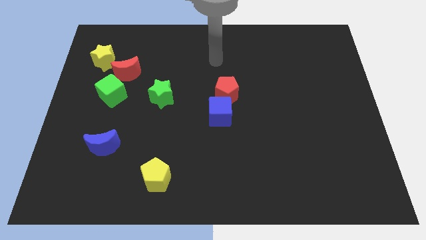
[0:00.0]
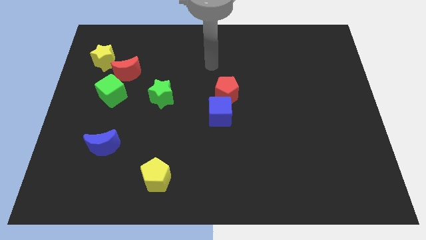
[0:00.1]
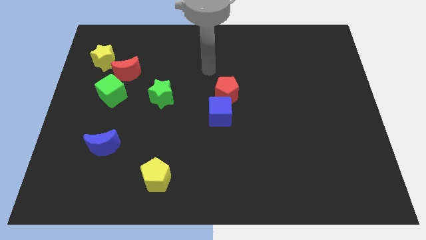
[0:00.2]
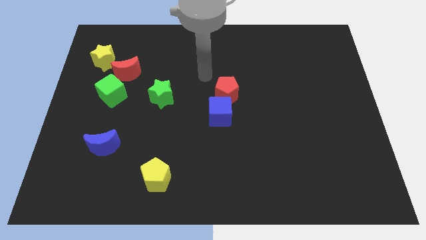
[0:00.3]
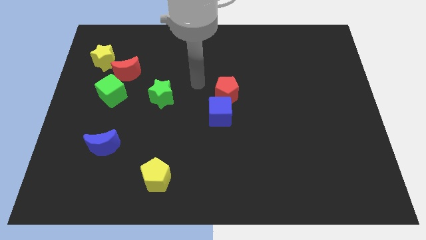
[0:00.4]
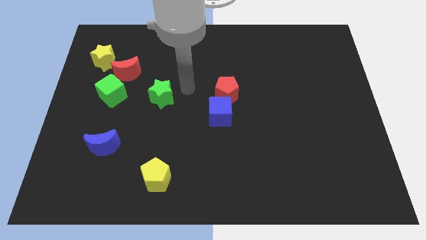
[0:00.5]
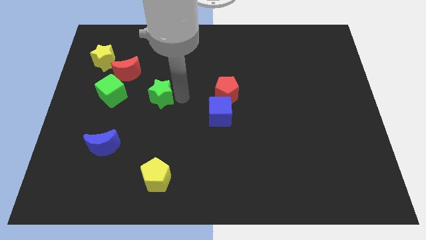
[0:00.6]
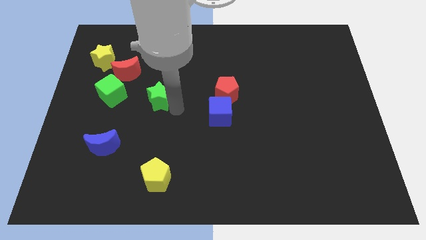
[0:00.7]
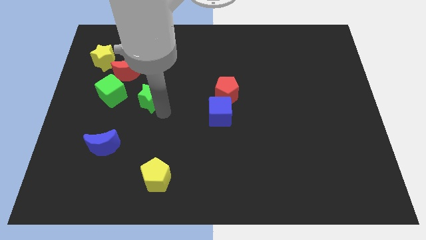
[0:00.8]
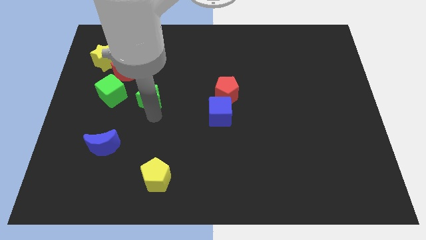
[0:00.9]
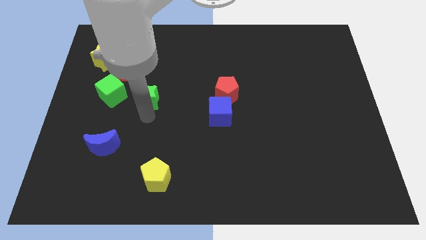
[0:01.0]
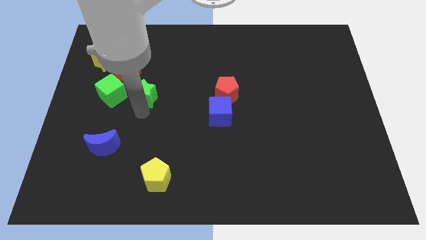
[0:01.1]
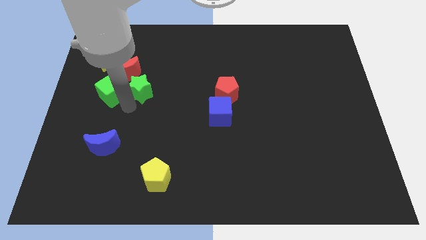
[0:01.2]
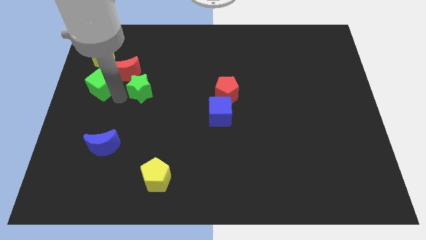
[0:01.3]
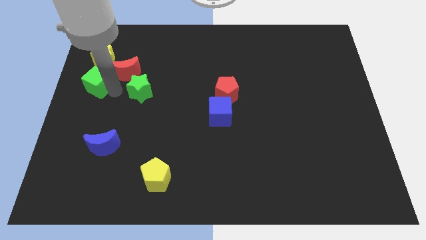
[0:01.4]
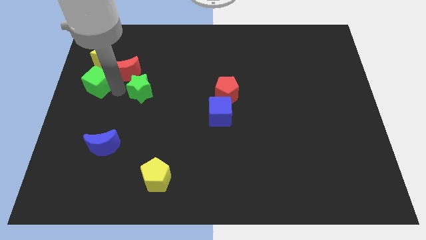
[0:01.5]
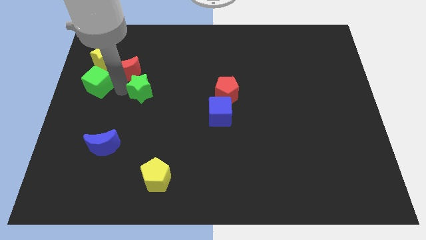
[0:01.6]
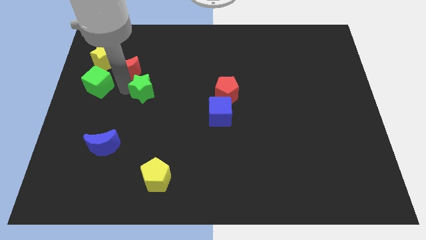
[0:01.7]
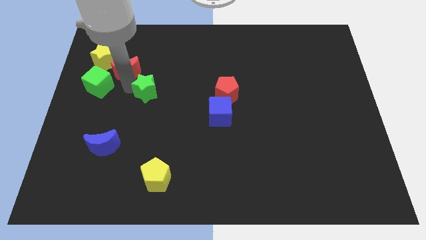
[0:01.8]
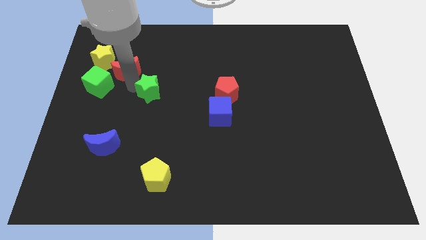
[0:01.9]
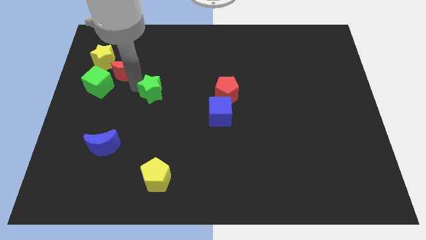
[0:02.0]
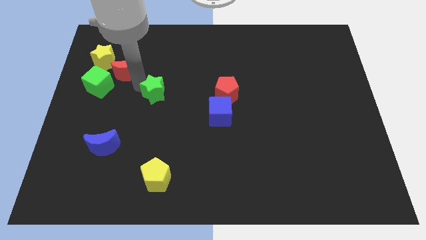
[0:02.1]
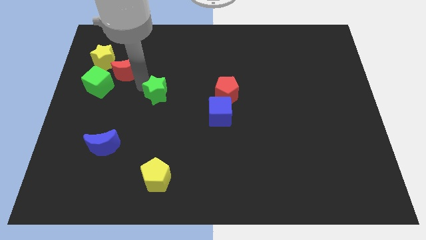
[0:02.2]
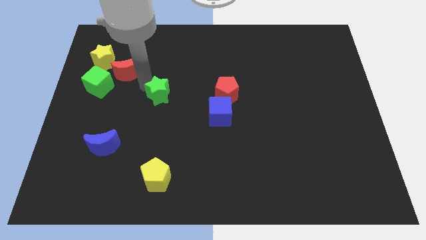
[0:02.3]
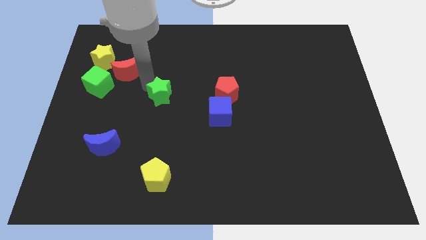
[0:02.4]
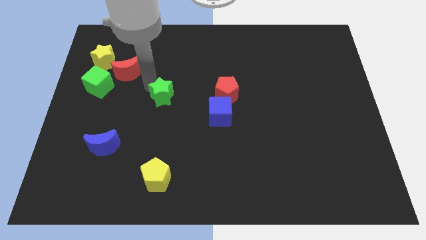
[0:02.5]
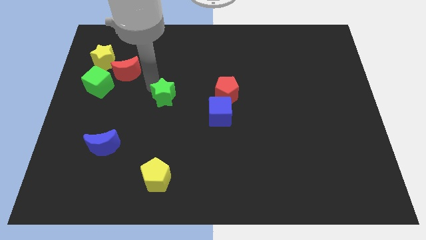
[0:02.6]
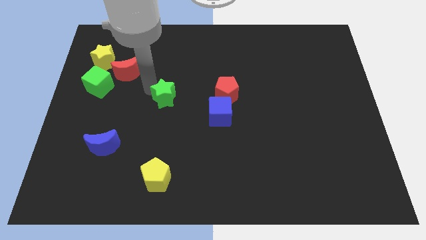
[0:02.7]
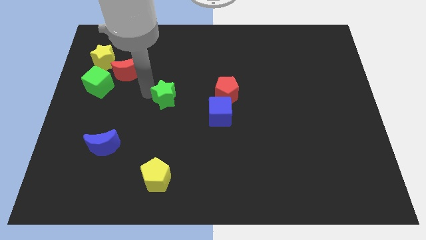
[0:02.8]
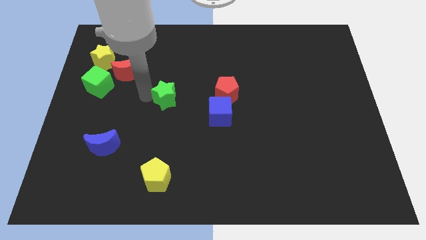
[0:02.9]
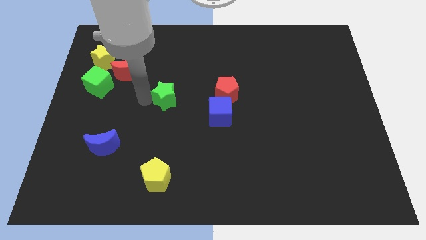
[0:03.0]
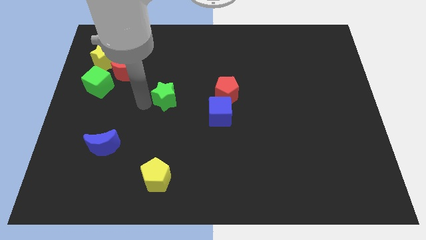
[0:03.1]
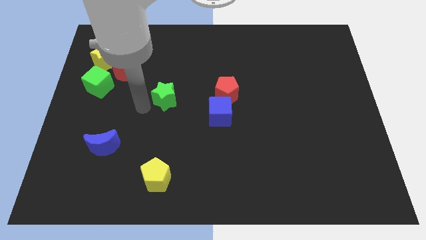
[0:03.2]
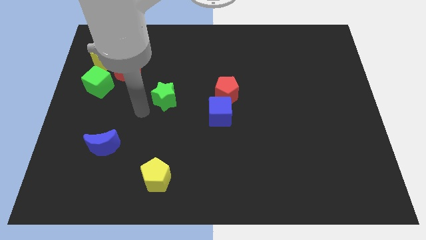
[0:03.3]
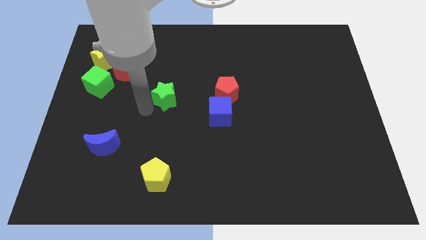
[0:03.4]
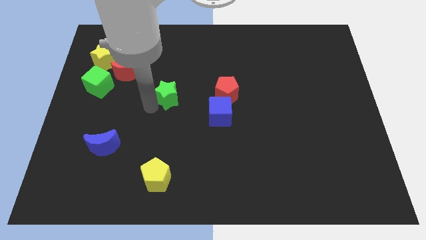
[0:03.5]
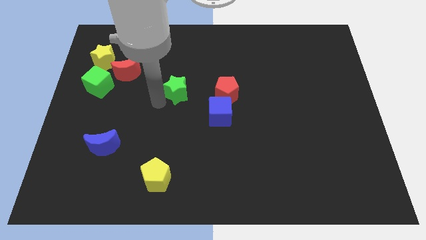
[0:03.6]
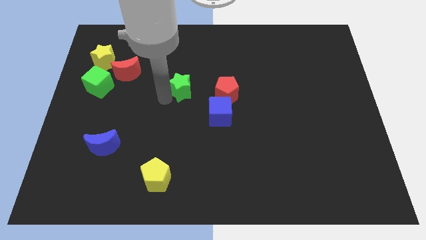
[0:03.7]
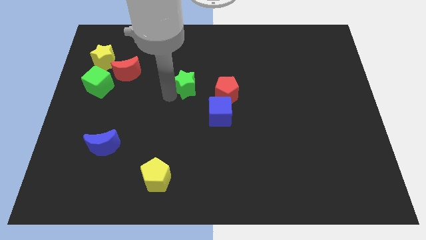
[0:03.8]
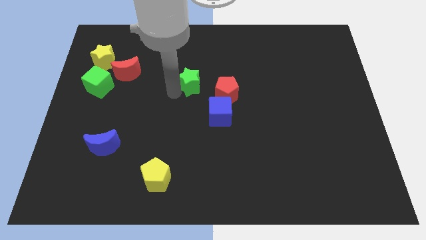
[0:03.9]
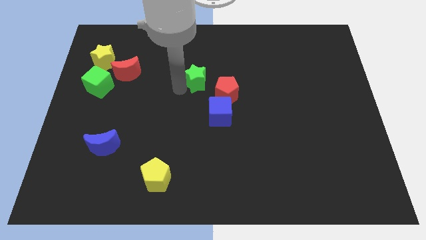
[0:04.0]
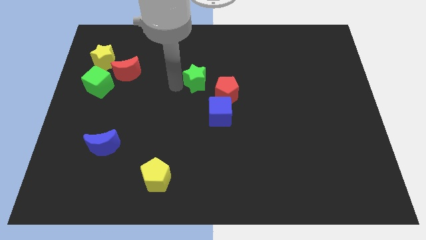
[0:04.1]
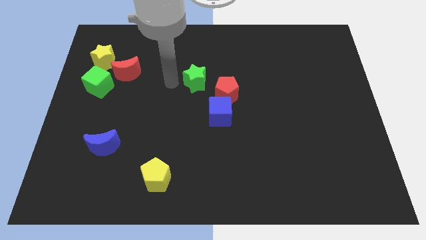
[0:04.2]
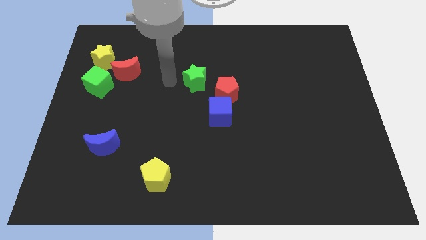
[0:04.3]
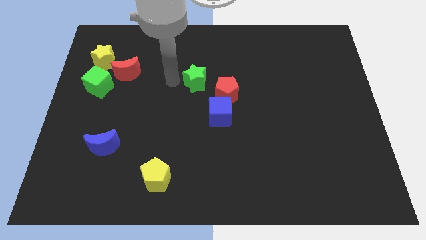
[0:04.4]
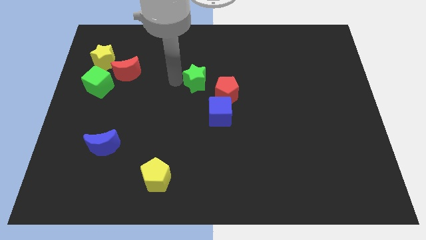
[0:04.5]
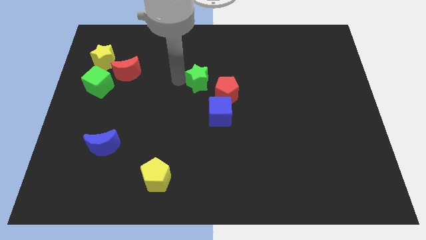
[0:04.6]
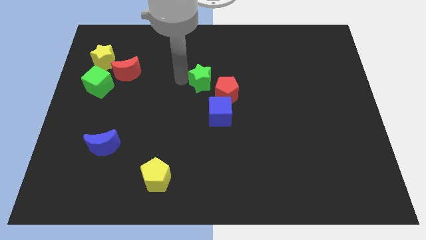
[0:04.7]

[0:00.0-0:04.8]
push the green star to the top of the blue cube

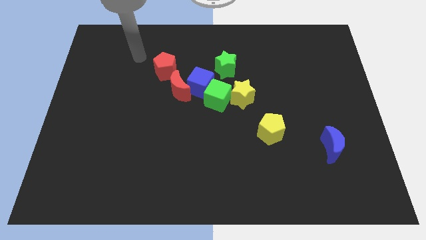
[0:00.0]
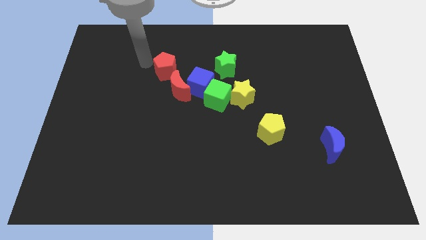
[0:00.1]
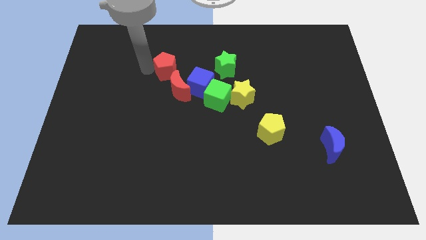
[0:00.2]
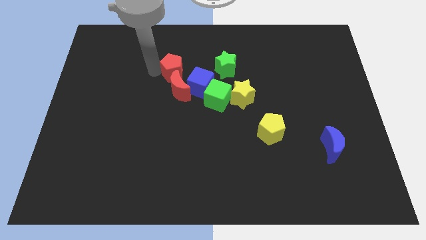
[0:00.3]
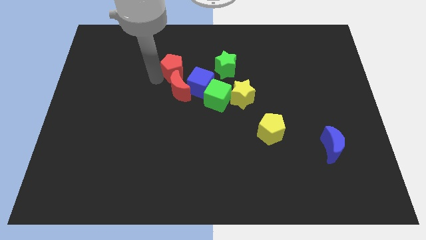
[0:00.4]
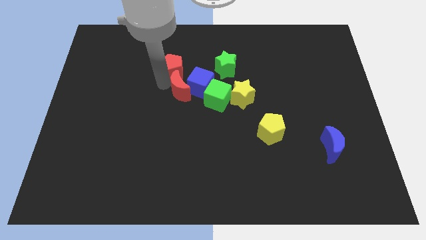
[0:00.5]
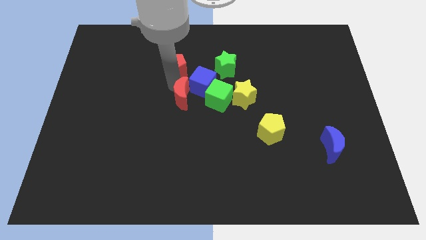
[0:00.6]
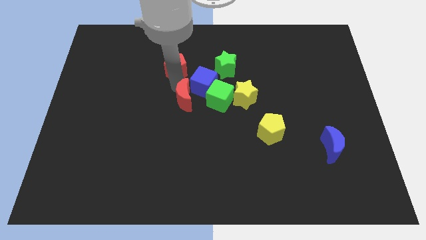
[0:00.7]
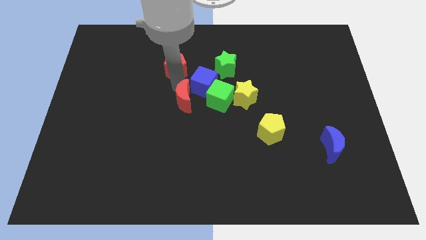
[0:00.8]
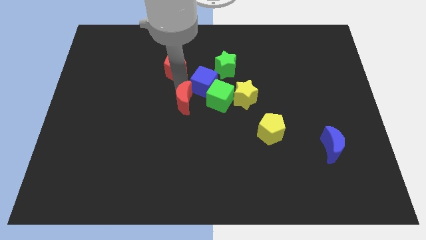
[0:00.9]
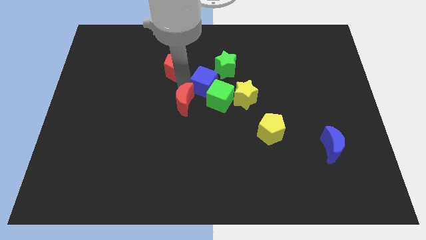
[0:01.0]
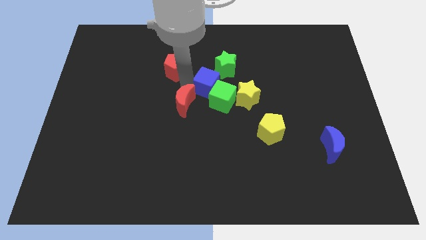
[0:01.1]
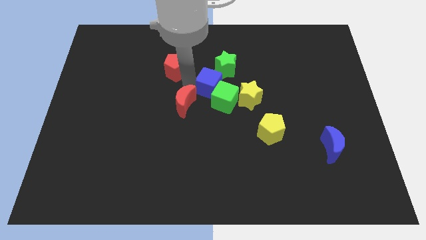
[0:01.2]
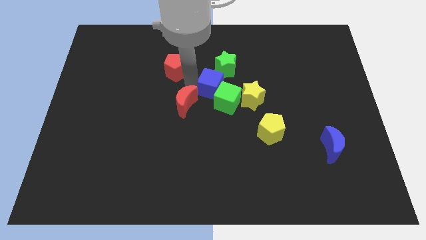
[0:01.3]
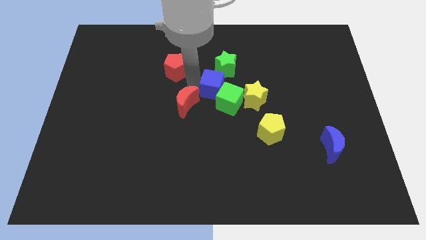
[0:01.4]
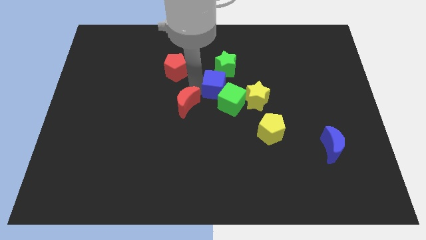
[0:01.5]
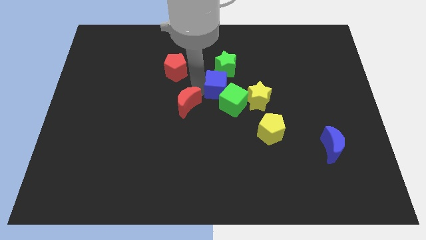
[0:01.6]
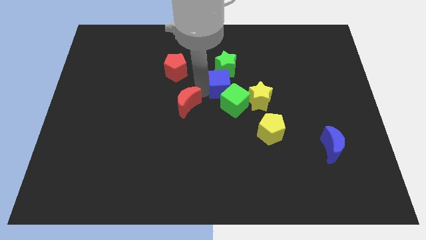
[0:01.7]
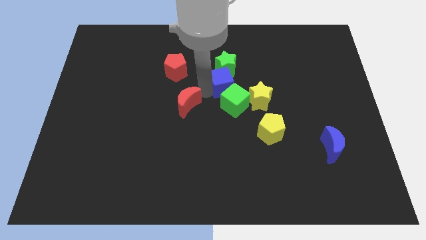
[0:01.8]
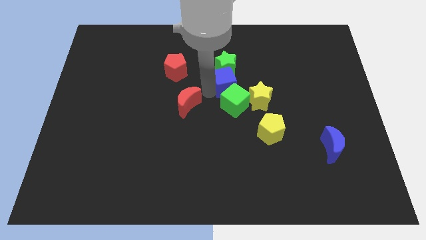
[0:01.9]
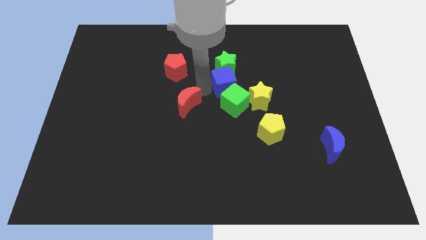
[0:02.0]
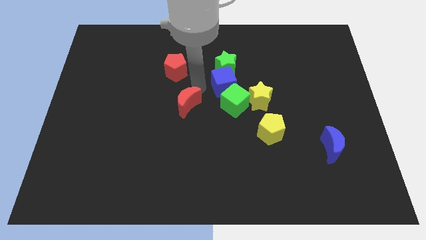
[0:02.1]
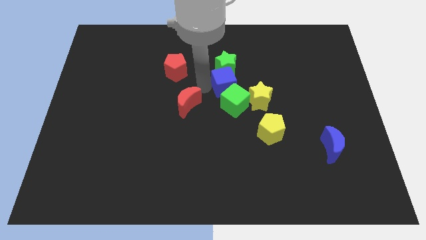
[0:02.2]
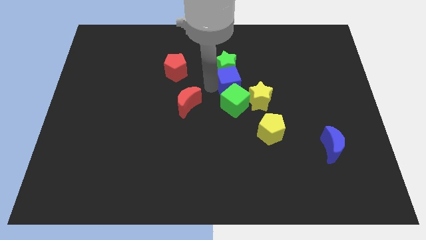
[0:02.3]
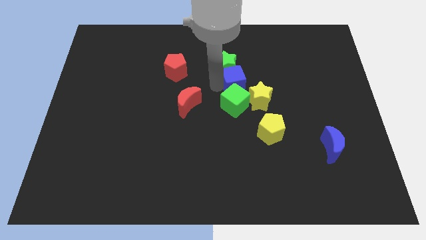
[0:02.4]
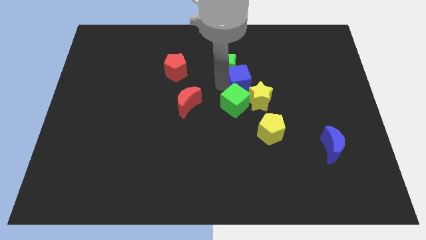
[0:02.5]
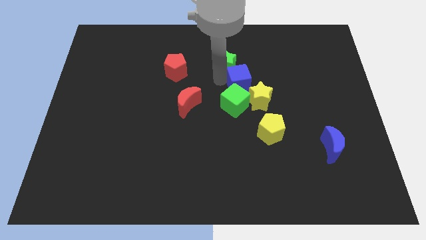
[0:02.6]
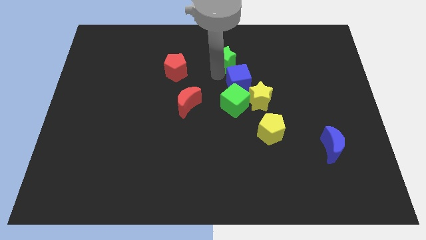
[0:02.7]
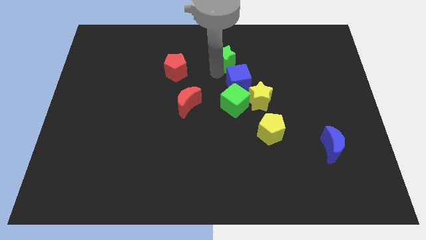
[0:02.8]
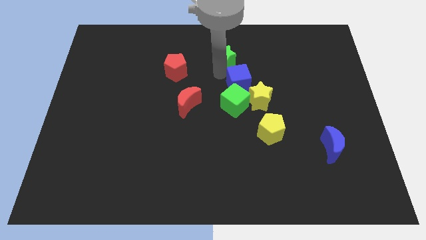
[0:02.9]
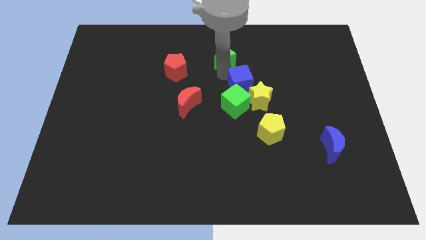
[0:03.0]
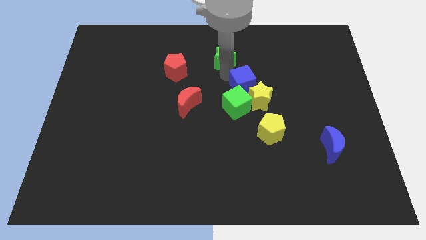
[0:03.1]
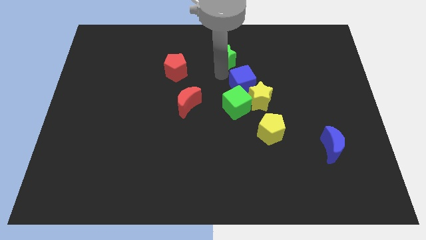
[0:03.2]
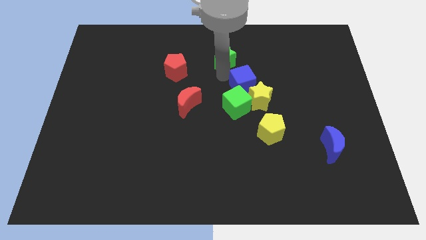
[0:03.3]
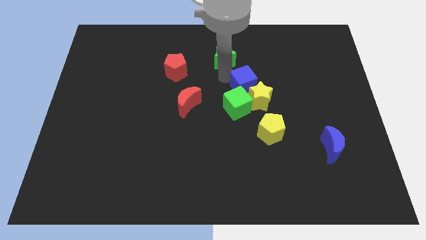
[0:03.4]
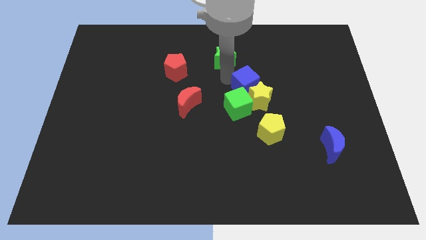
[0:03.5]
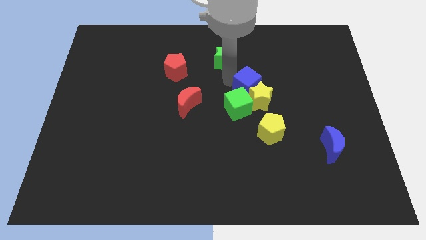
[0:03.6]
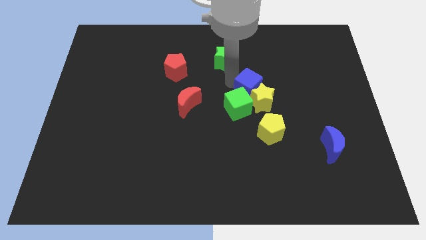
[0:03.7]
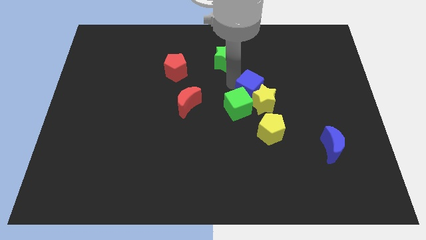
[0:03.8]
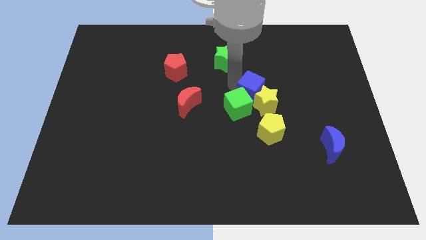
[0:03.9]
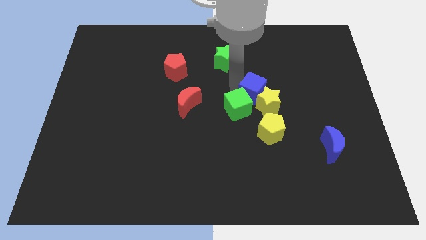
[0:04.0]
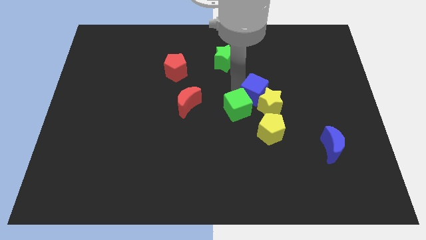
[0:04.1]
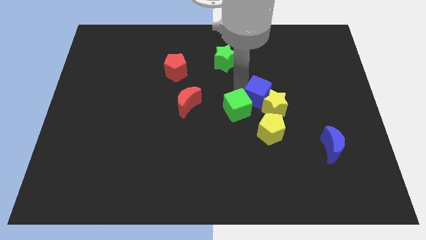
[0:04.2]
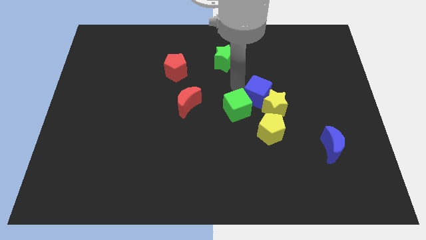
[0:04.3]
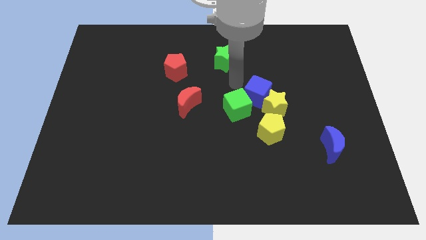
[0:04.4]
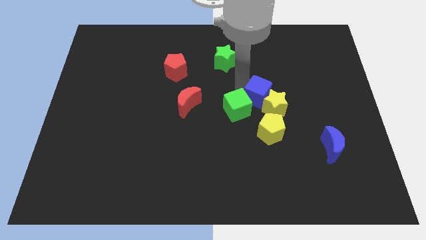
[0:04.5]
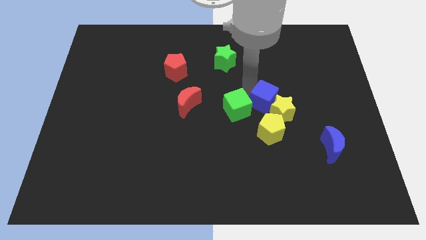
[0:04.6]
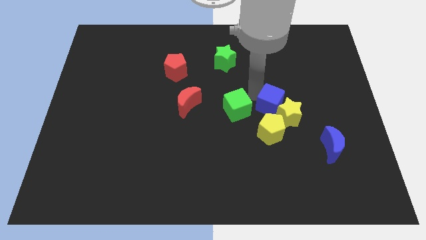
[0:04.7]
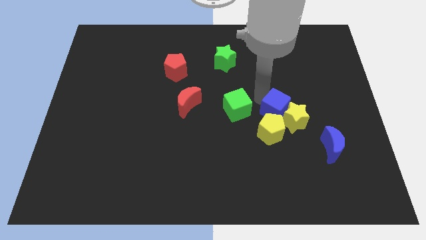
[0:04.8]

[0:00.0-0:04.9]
slide the blue cube to the top right of the yellow pentagon
